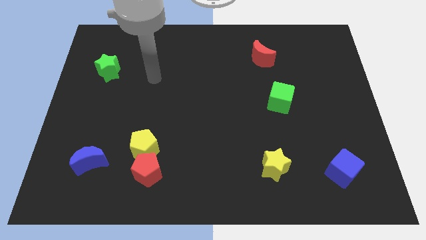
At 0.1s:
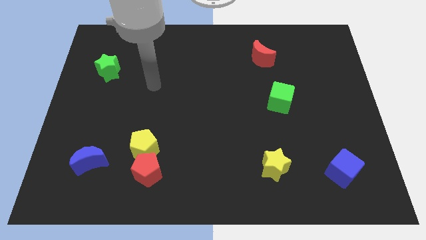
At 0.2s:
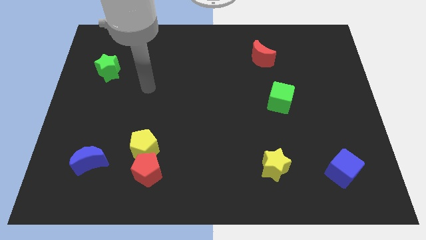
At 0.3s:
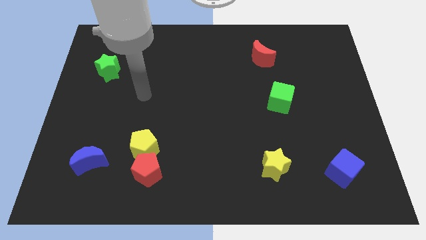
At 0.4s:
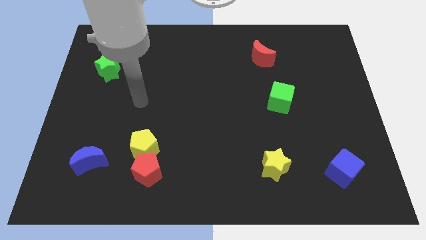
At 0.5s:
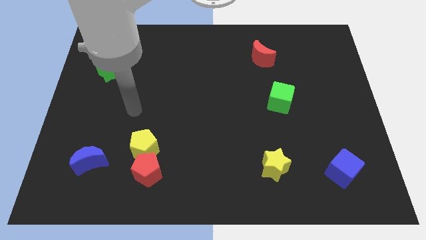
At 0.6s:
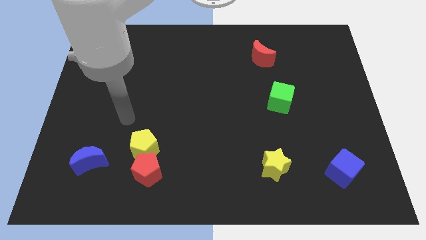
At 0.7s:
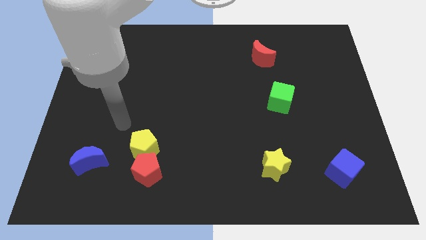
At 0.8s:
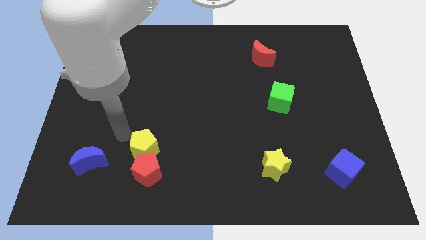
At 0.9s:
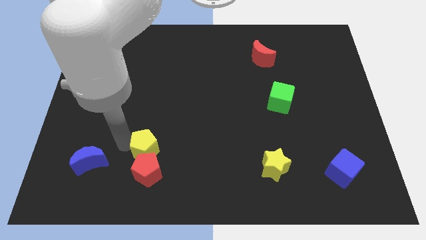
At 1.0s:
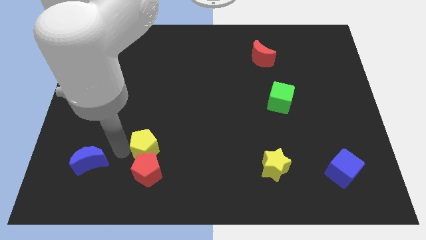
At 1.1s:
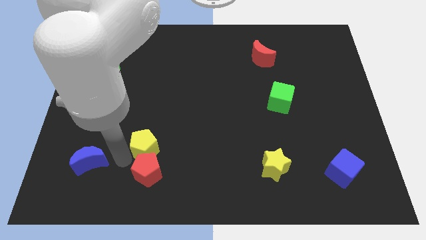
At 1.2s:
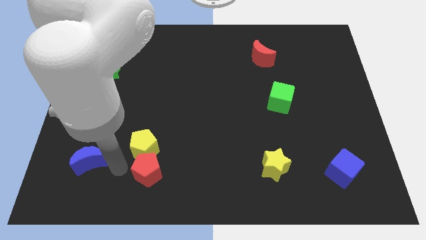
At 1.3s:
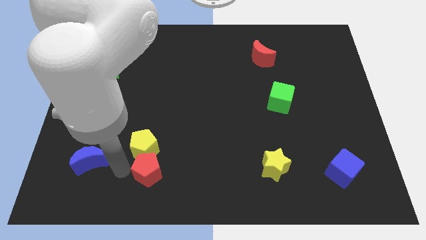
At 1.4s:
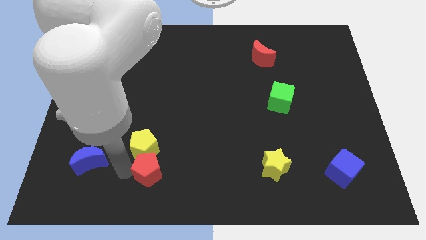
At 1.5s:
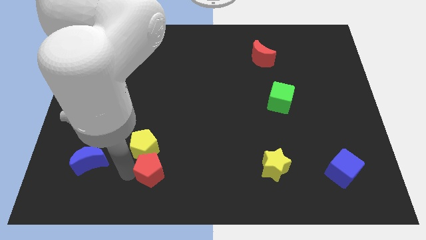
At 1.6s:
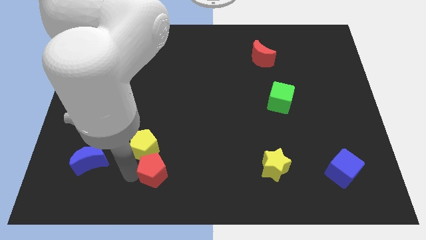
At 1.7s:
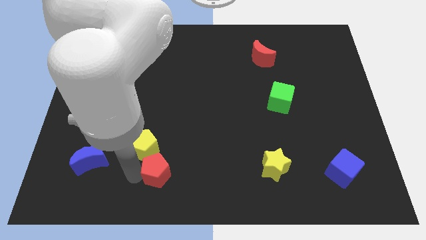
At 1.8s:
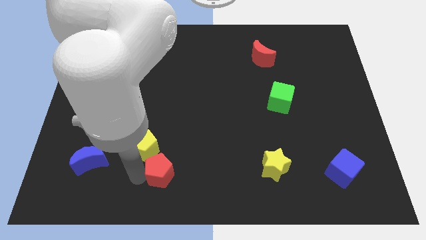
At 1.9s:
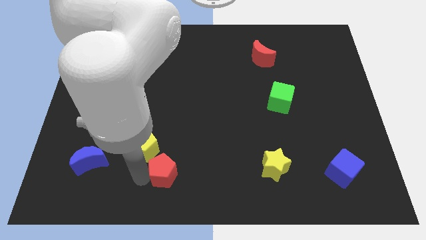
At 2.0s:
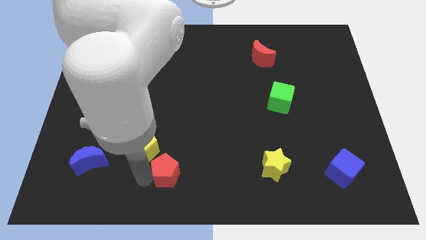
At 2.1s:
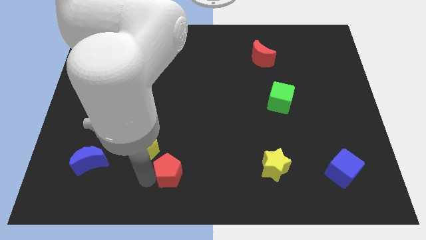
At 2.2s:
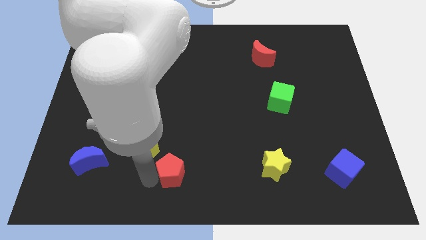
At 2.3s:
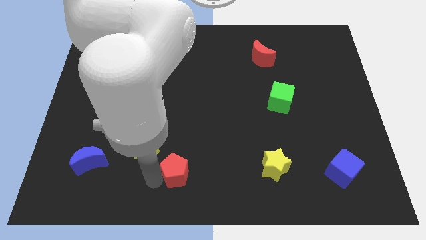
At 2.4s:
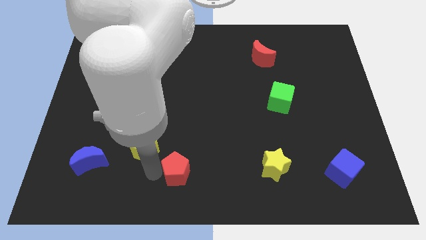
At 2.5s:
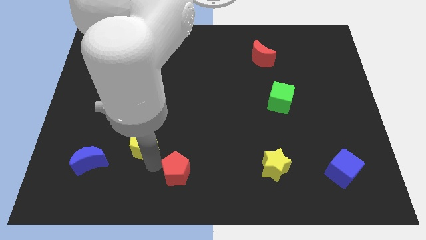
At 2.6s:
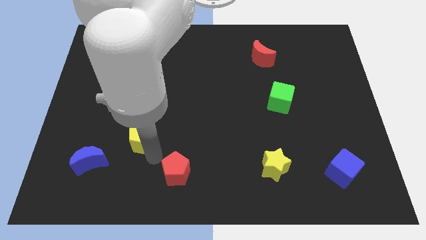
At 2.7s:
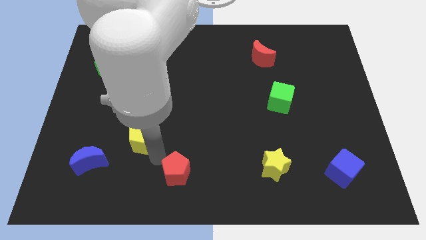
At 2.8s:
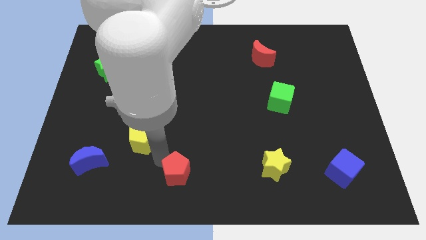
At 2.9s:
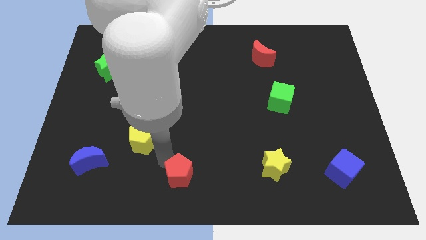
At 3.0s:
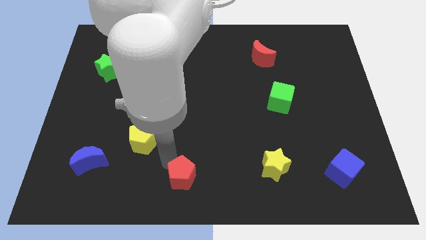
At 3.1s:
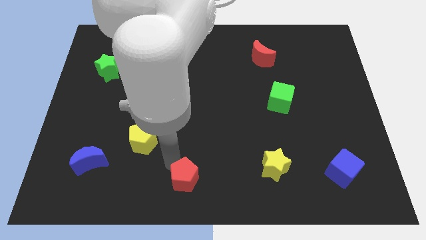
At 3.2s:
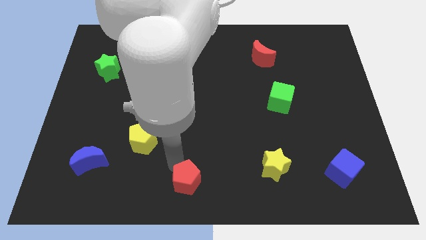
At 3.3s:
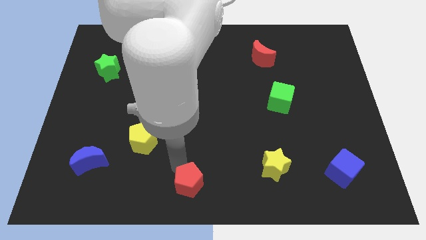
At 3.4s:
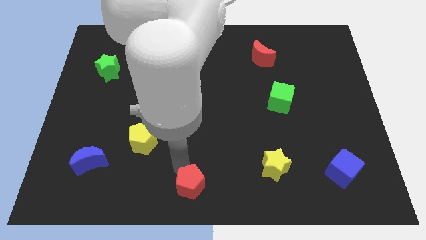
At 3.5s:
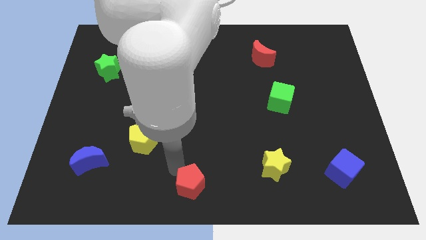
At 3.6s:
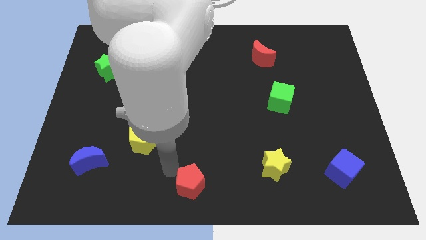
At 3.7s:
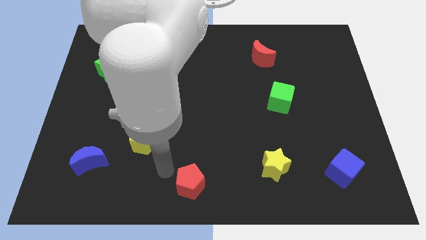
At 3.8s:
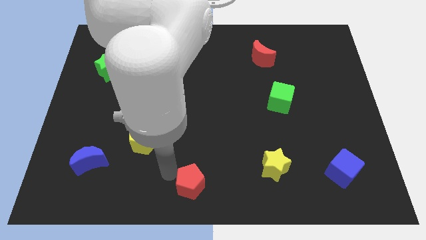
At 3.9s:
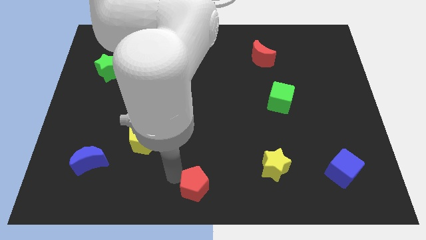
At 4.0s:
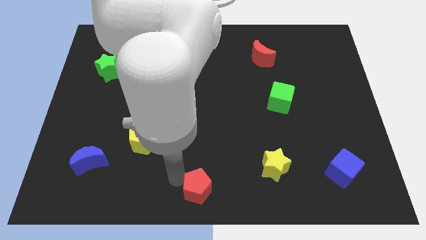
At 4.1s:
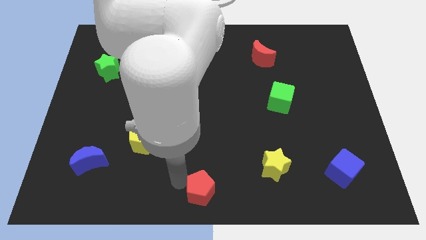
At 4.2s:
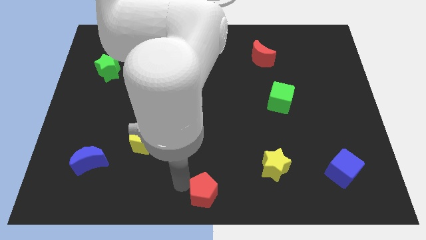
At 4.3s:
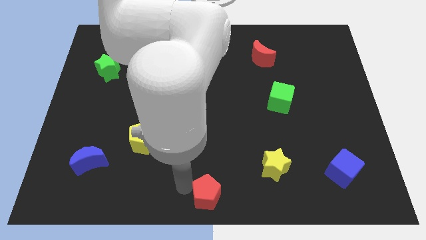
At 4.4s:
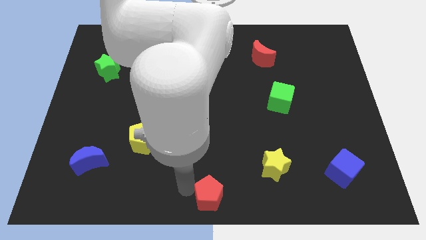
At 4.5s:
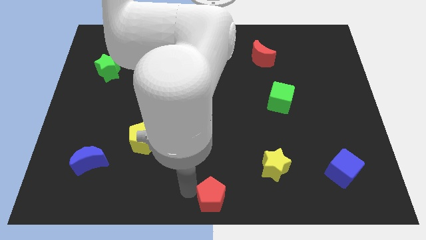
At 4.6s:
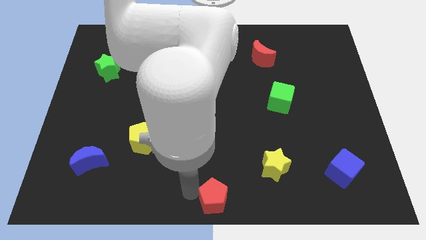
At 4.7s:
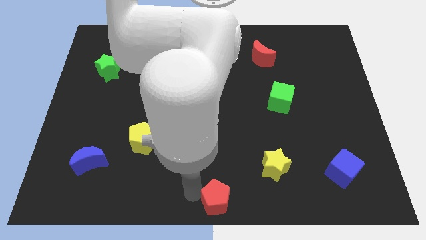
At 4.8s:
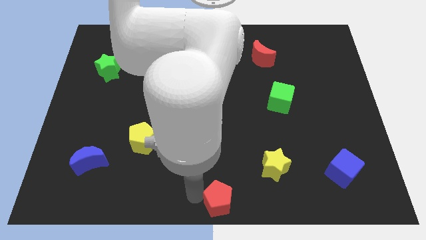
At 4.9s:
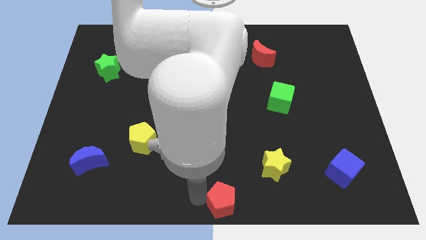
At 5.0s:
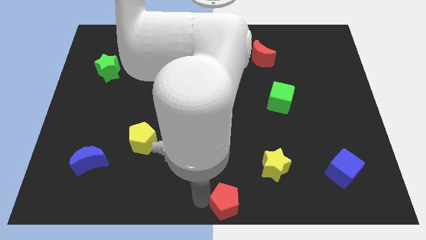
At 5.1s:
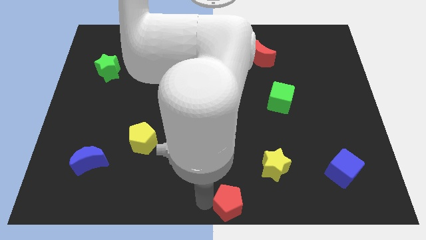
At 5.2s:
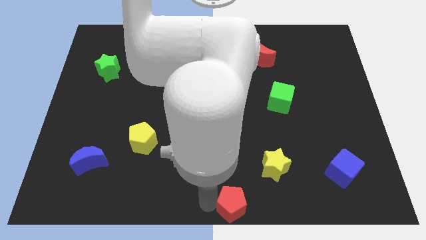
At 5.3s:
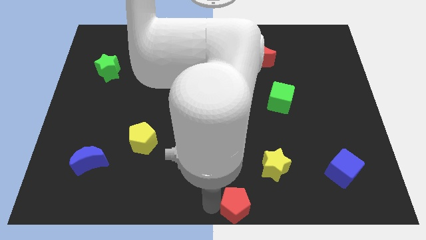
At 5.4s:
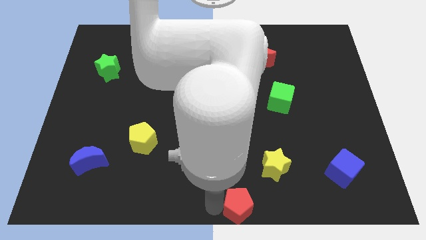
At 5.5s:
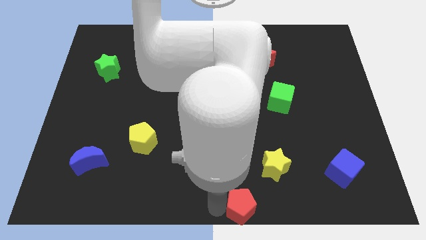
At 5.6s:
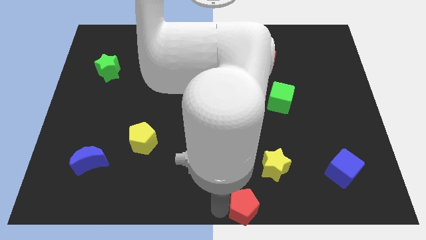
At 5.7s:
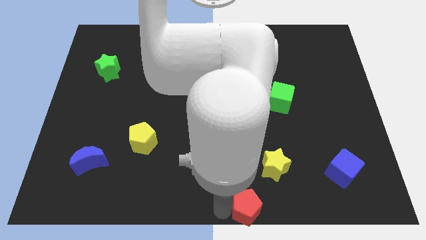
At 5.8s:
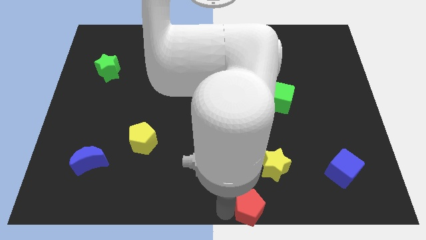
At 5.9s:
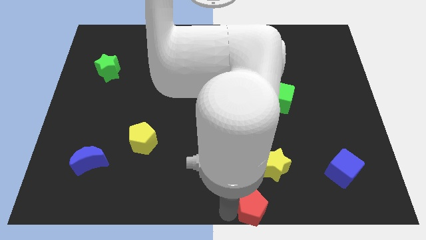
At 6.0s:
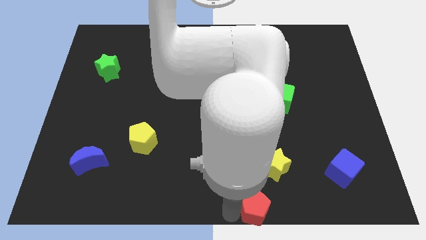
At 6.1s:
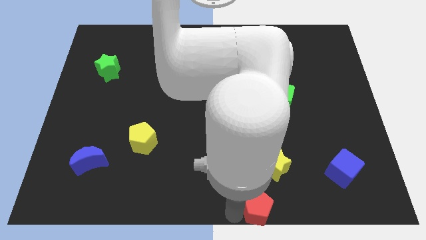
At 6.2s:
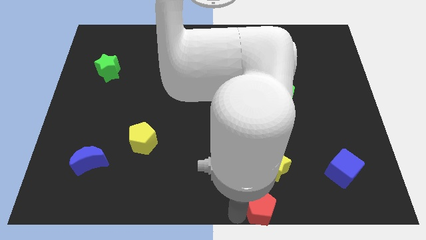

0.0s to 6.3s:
slide the red pentagon to the right

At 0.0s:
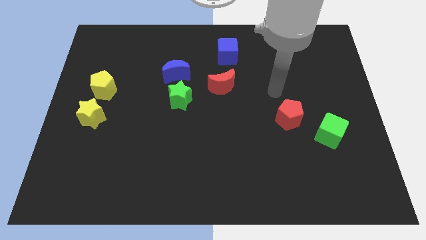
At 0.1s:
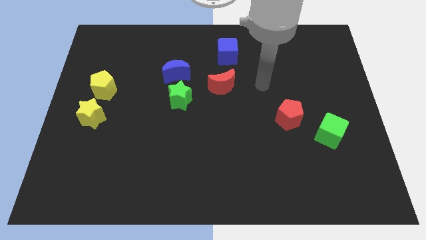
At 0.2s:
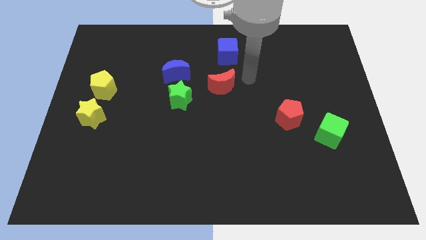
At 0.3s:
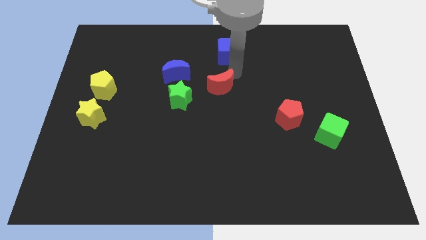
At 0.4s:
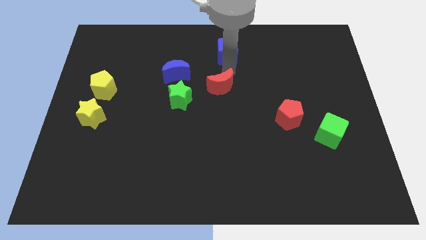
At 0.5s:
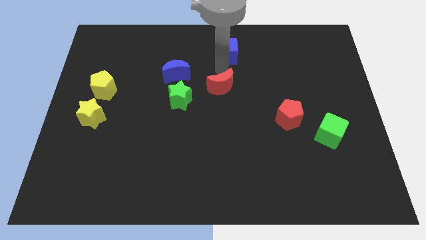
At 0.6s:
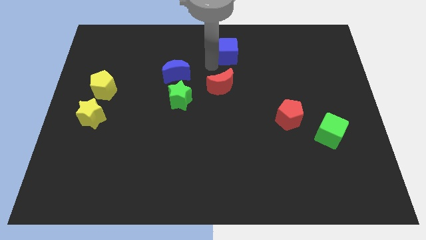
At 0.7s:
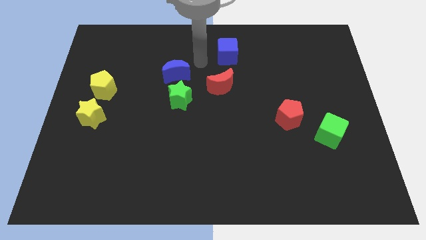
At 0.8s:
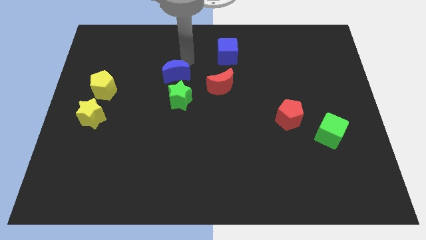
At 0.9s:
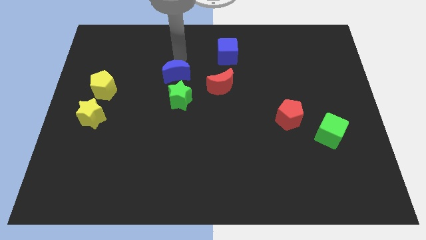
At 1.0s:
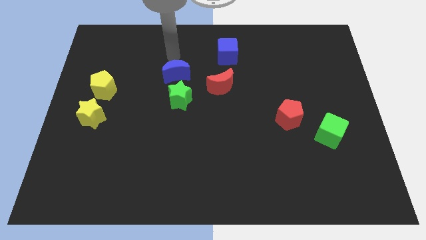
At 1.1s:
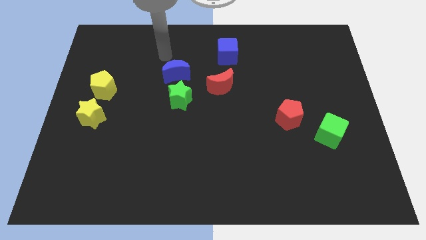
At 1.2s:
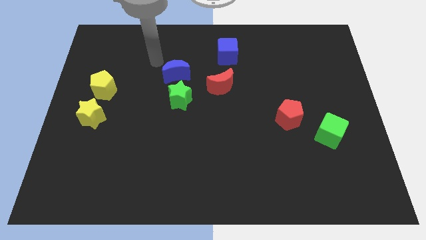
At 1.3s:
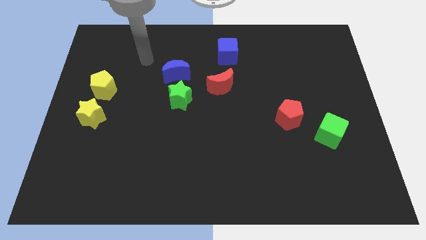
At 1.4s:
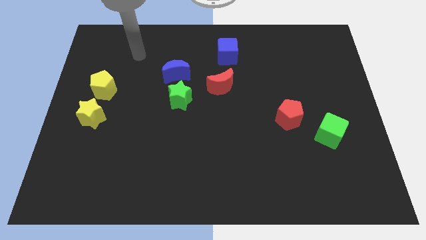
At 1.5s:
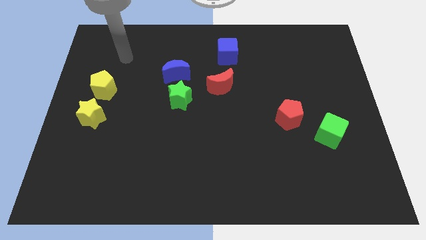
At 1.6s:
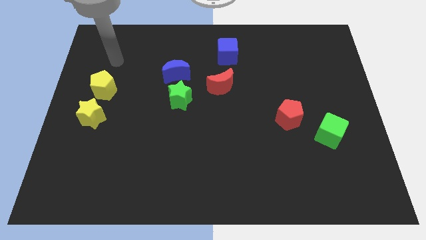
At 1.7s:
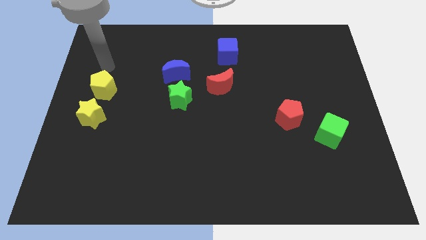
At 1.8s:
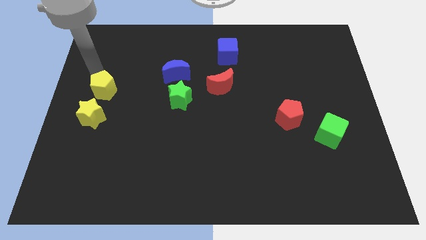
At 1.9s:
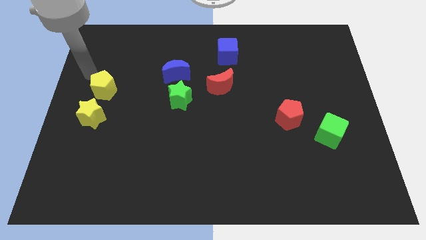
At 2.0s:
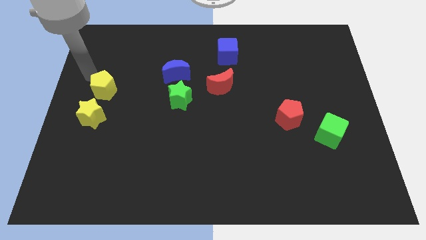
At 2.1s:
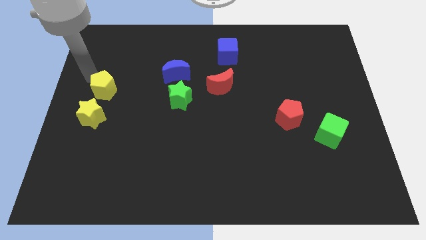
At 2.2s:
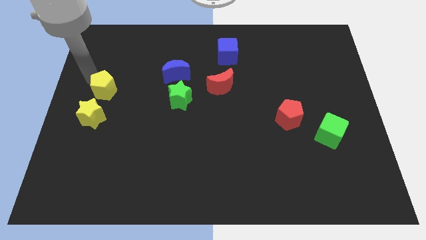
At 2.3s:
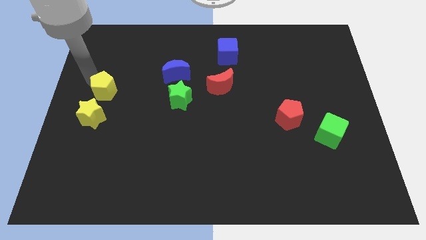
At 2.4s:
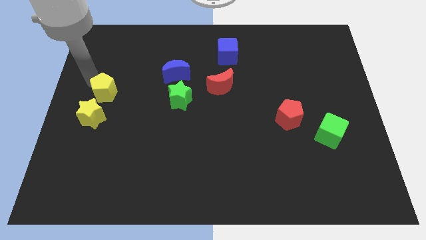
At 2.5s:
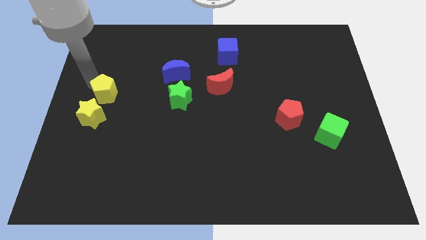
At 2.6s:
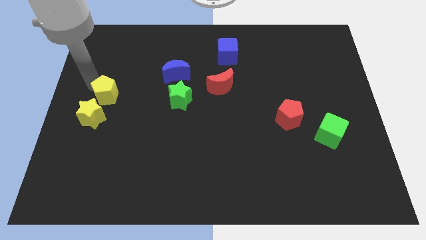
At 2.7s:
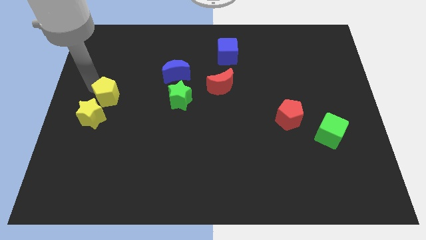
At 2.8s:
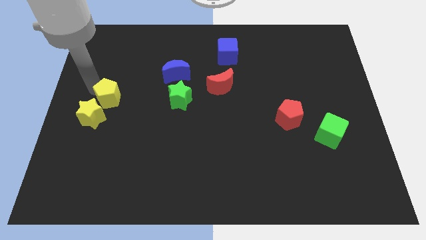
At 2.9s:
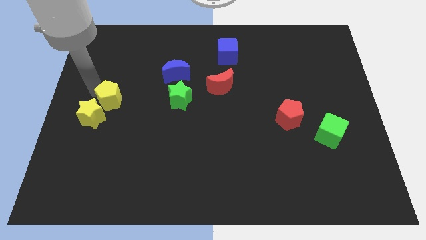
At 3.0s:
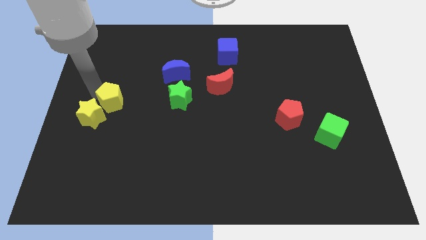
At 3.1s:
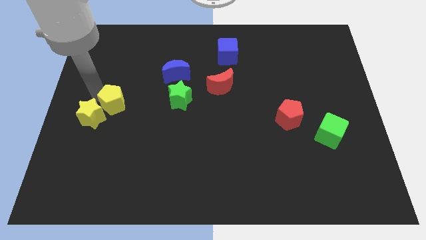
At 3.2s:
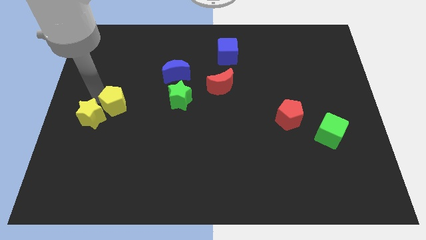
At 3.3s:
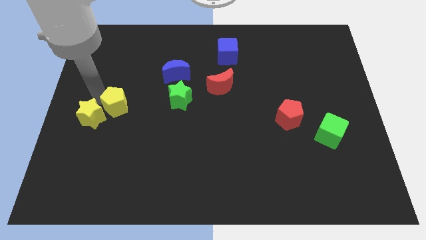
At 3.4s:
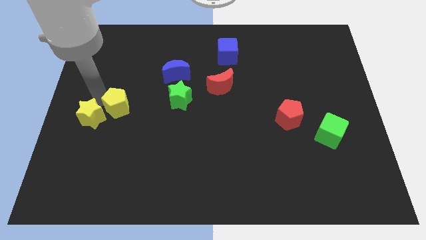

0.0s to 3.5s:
move the yellow pentagon a bit down and then right
